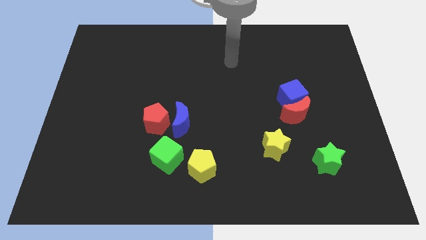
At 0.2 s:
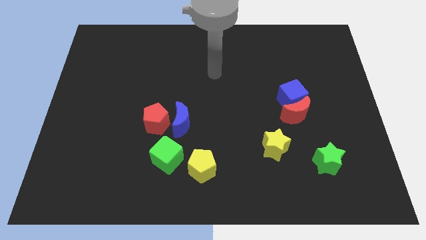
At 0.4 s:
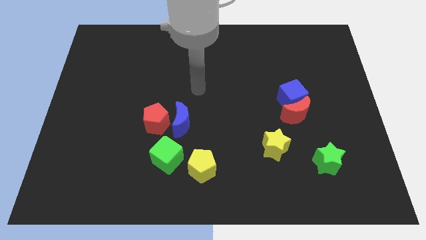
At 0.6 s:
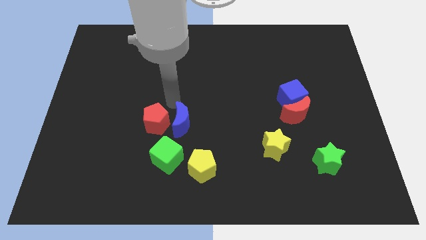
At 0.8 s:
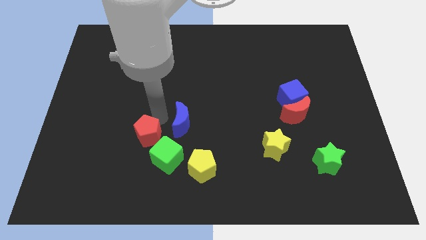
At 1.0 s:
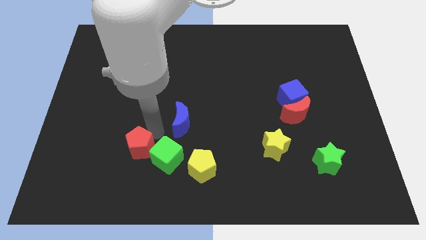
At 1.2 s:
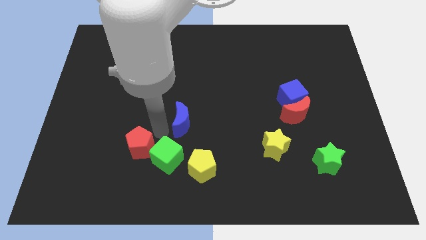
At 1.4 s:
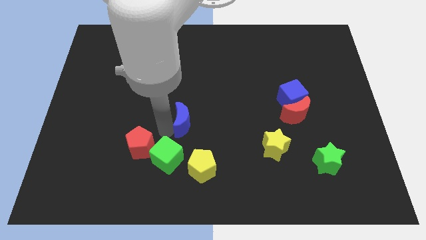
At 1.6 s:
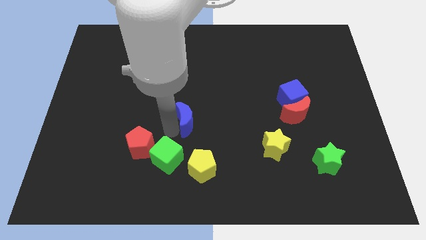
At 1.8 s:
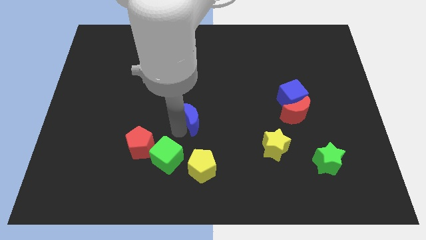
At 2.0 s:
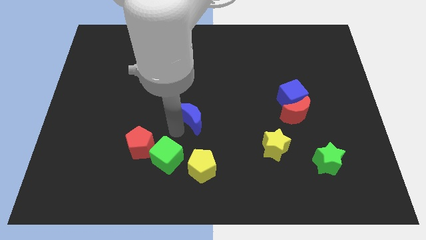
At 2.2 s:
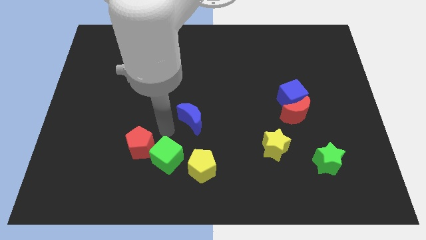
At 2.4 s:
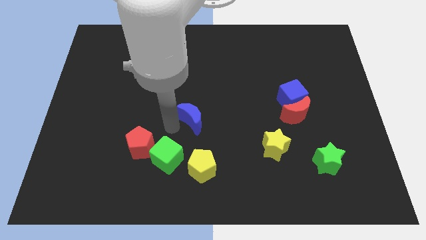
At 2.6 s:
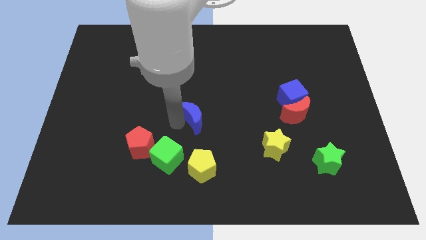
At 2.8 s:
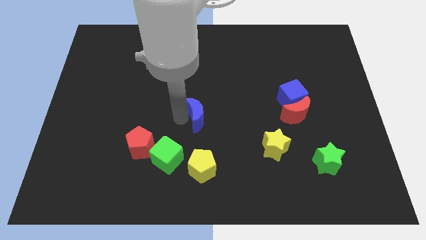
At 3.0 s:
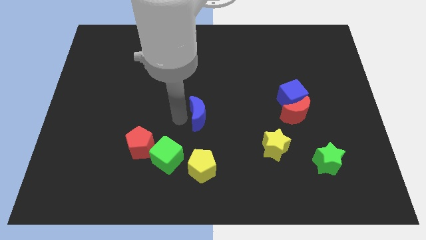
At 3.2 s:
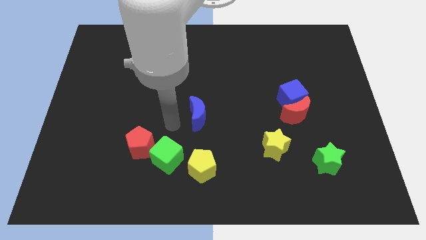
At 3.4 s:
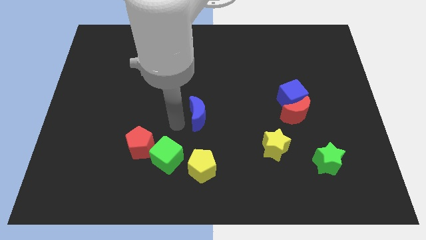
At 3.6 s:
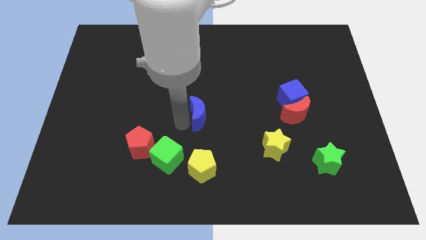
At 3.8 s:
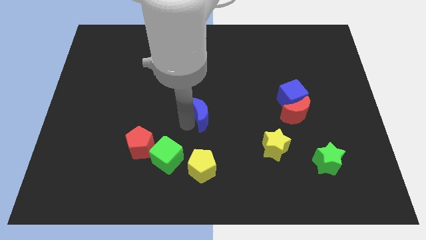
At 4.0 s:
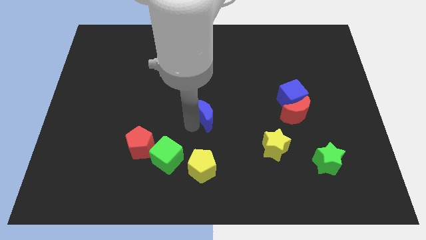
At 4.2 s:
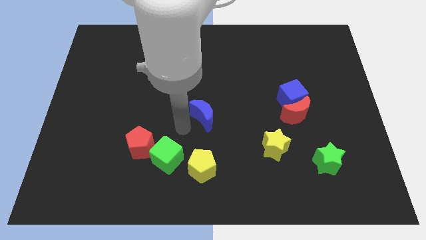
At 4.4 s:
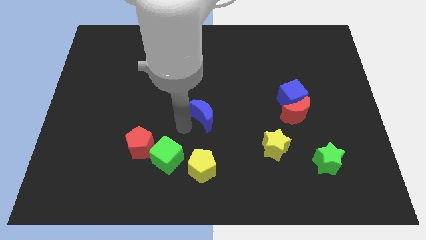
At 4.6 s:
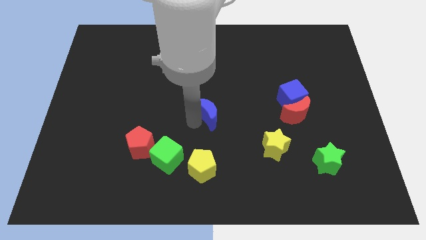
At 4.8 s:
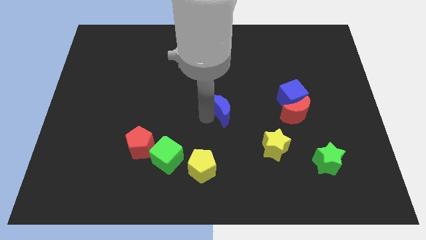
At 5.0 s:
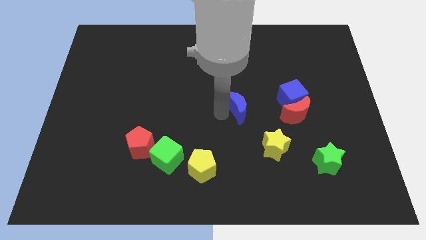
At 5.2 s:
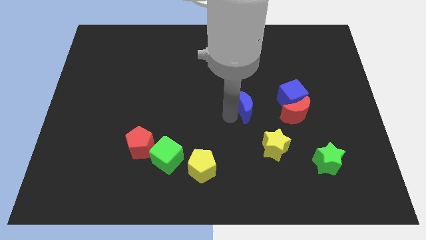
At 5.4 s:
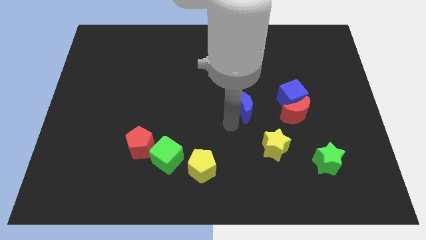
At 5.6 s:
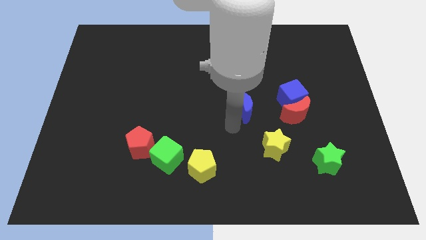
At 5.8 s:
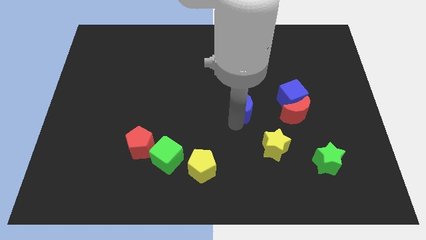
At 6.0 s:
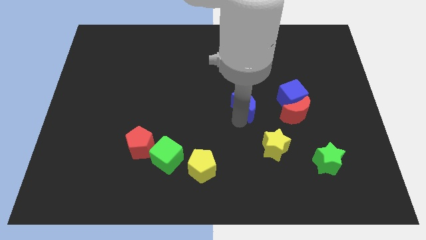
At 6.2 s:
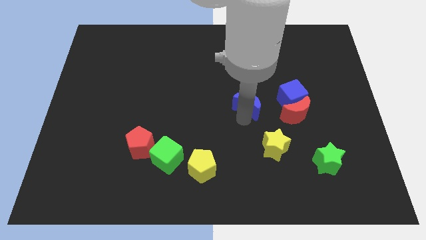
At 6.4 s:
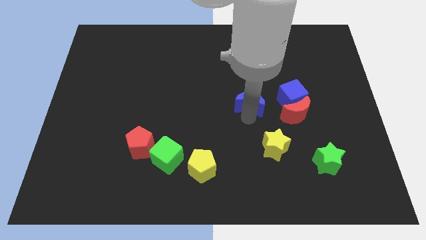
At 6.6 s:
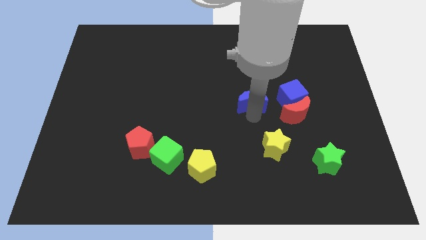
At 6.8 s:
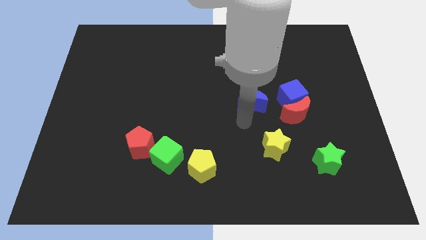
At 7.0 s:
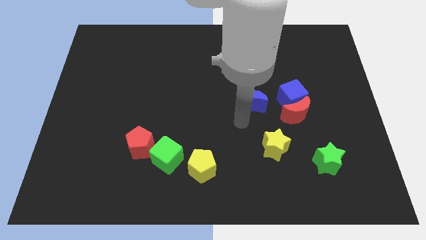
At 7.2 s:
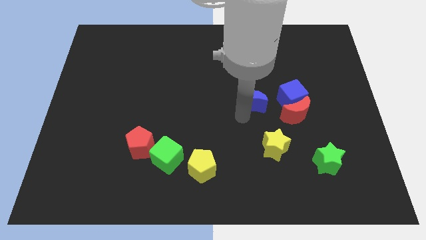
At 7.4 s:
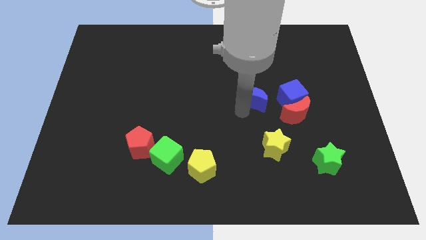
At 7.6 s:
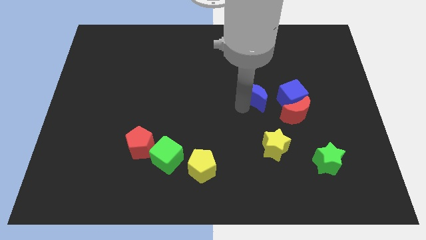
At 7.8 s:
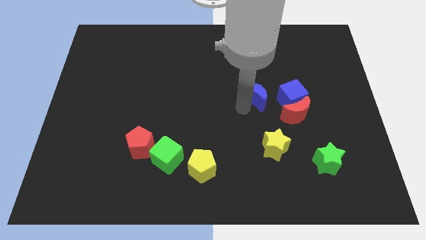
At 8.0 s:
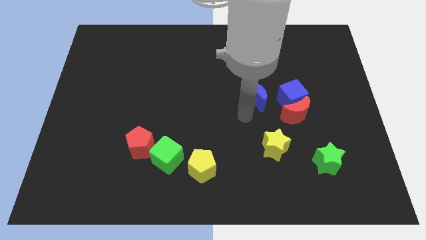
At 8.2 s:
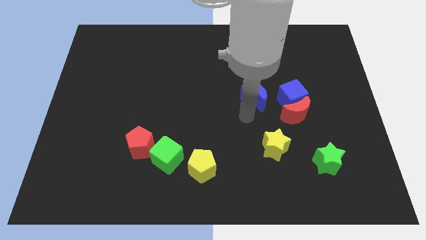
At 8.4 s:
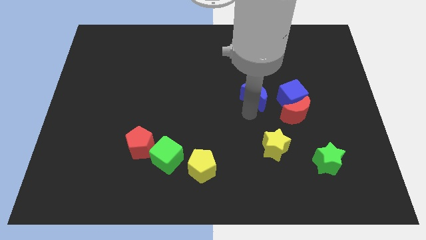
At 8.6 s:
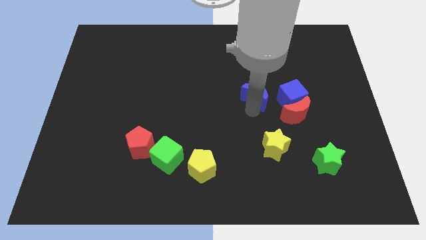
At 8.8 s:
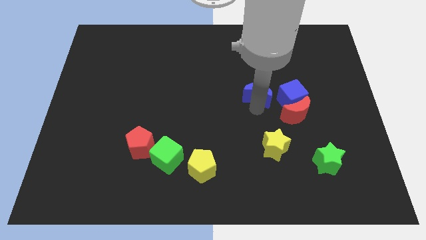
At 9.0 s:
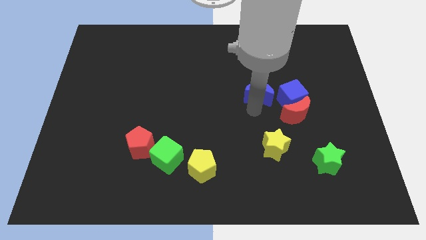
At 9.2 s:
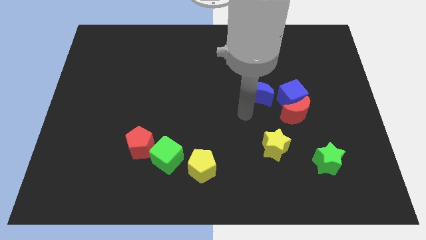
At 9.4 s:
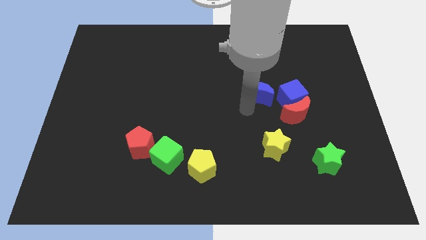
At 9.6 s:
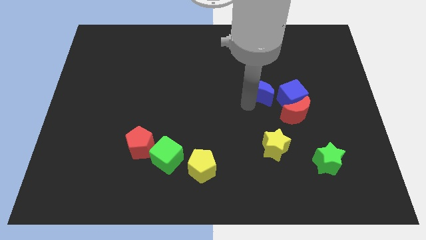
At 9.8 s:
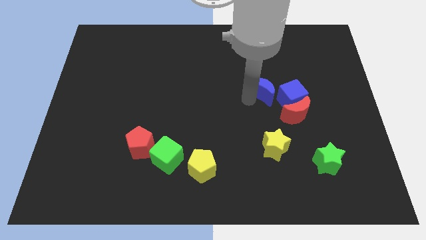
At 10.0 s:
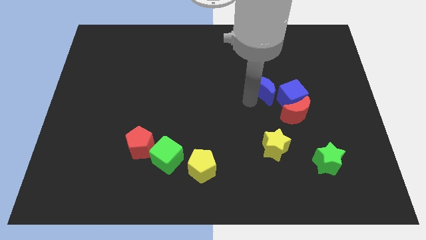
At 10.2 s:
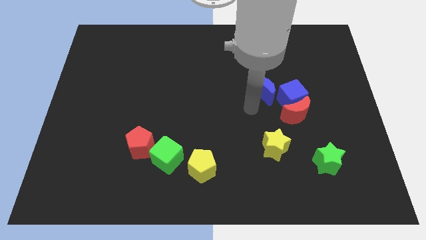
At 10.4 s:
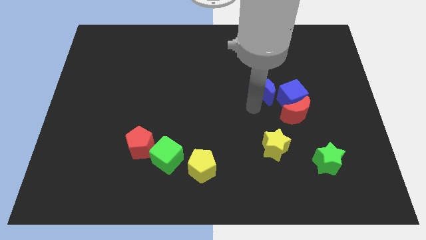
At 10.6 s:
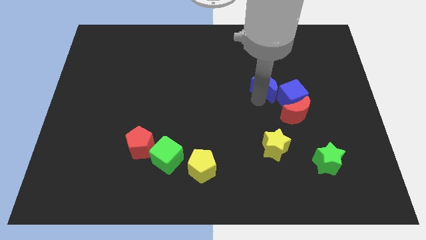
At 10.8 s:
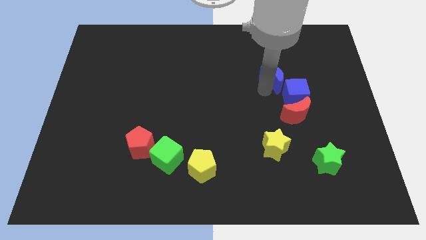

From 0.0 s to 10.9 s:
put the blue moon above the blue cube

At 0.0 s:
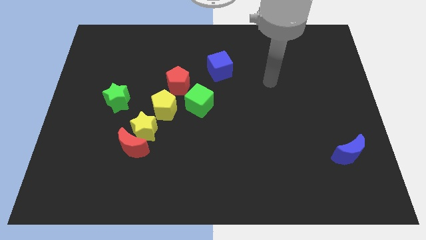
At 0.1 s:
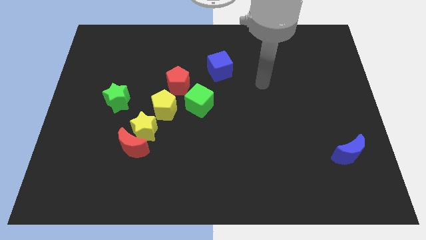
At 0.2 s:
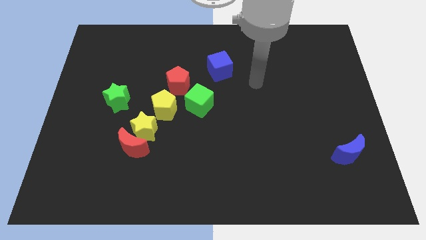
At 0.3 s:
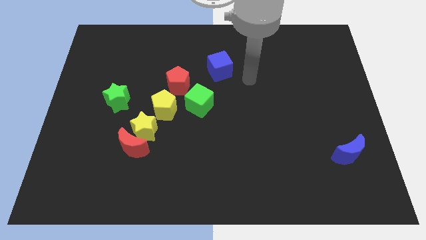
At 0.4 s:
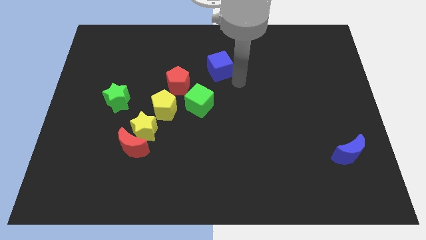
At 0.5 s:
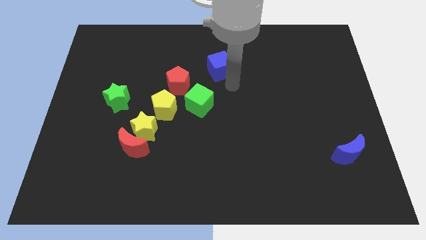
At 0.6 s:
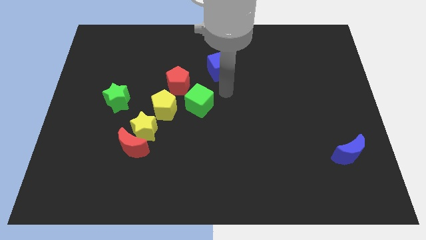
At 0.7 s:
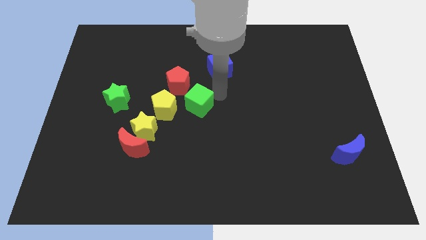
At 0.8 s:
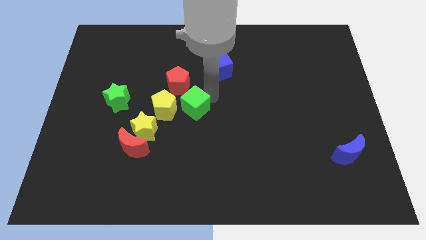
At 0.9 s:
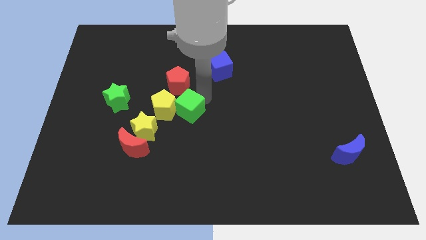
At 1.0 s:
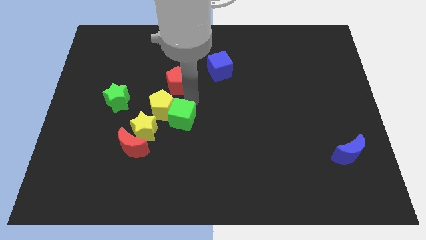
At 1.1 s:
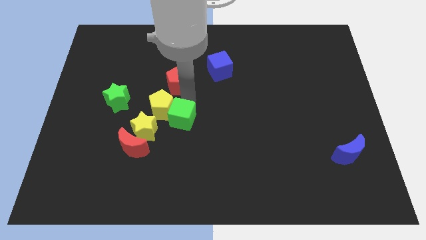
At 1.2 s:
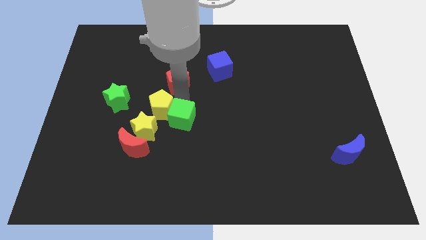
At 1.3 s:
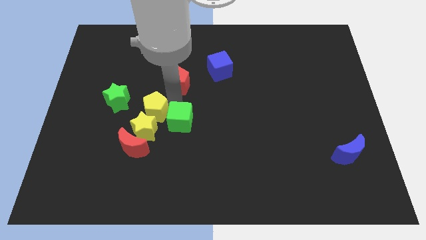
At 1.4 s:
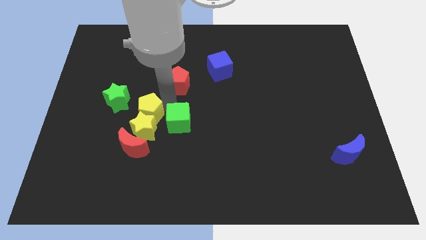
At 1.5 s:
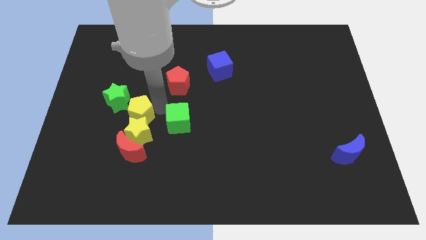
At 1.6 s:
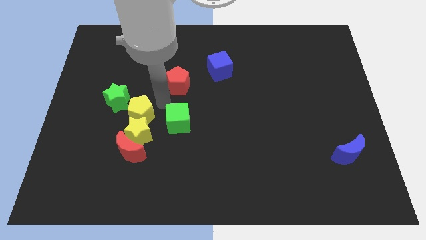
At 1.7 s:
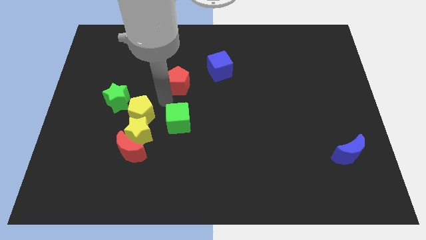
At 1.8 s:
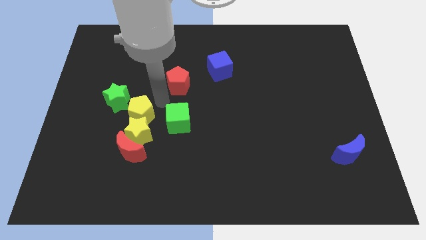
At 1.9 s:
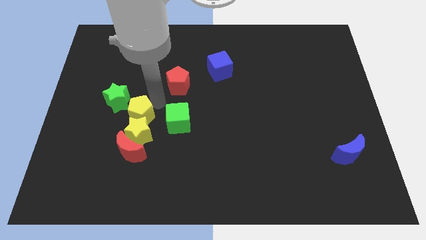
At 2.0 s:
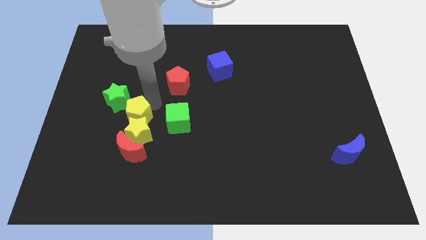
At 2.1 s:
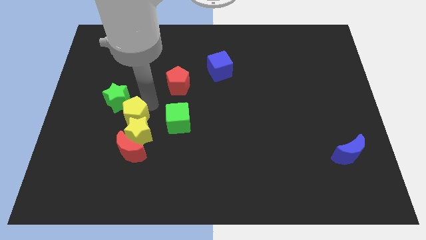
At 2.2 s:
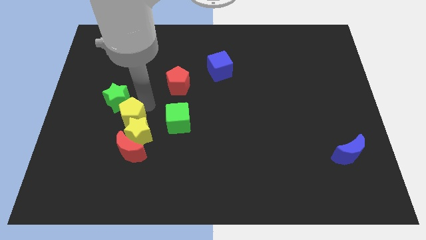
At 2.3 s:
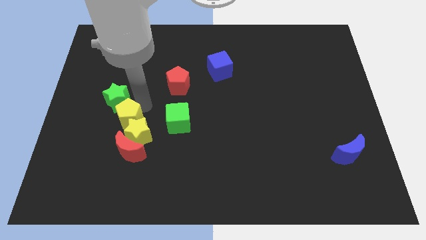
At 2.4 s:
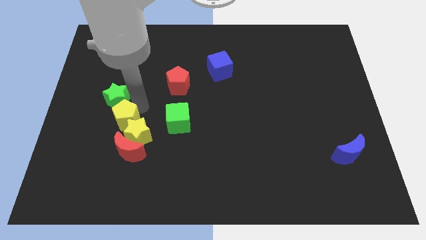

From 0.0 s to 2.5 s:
put the yellow pentagon to the top left side of the red moon
